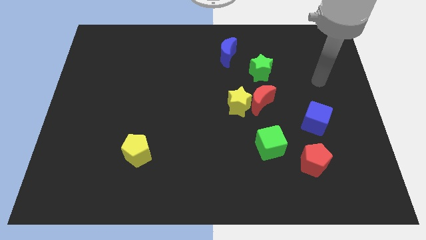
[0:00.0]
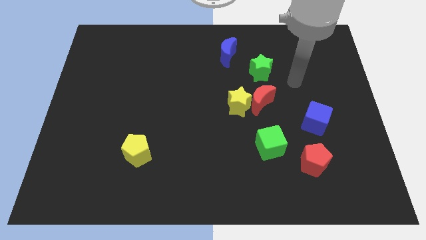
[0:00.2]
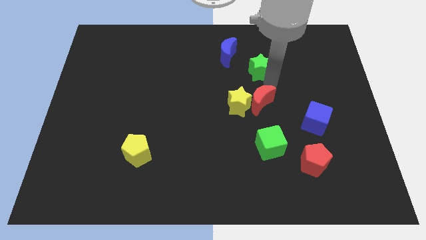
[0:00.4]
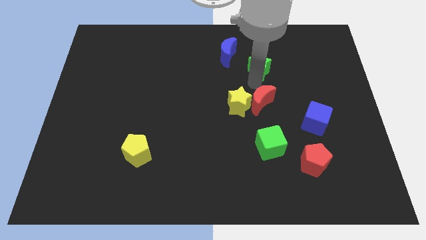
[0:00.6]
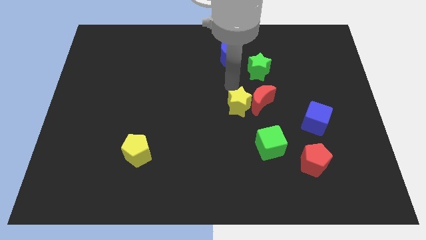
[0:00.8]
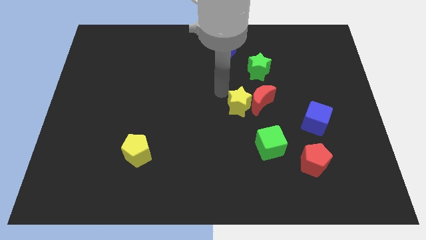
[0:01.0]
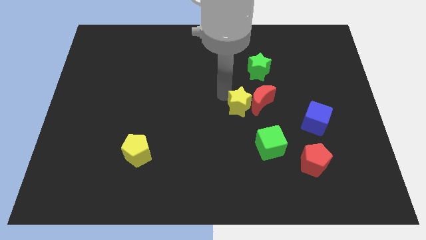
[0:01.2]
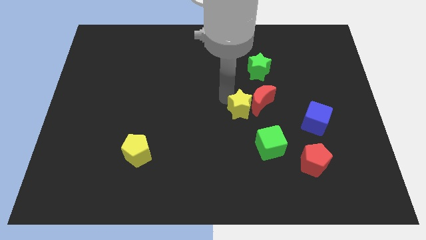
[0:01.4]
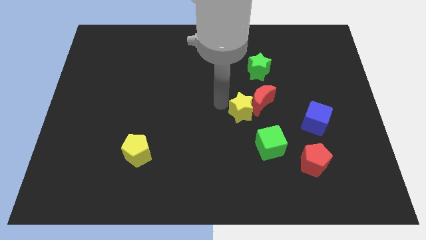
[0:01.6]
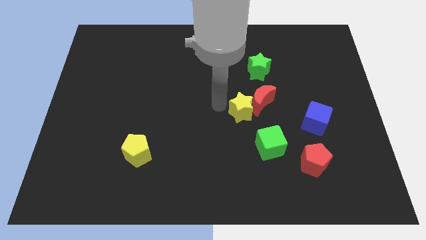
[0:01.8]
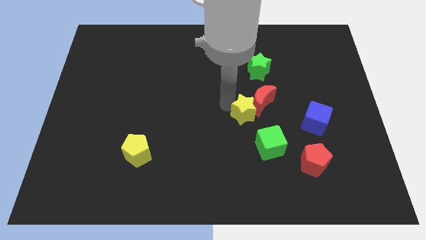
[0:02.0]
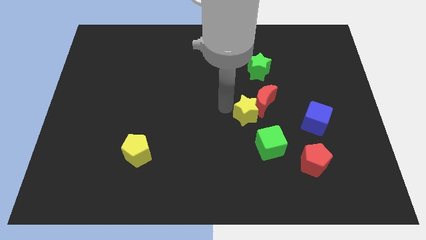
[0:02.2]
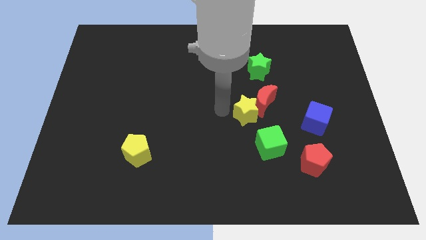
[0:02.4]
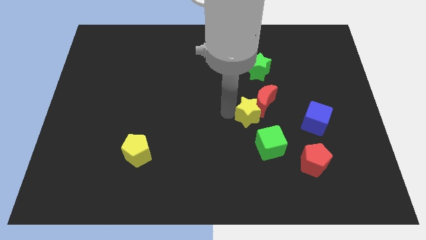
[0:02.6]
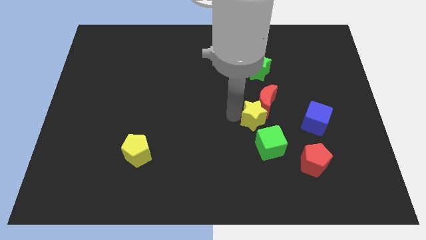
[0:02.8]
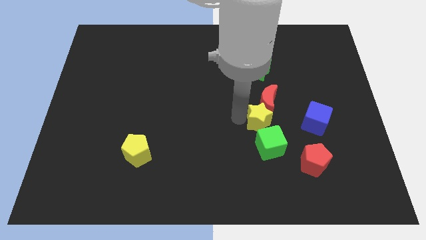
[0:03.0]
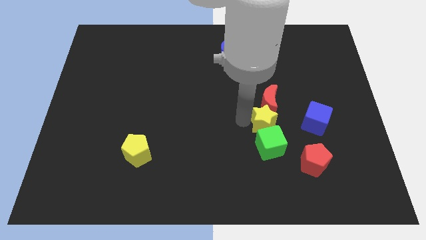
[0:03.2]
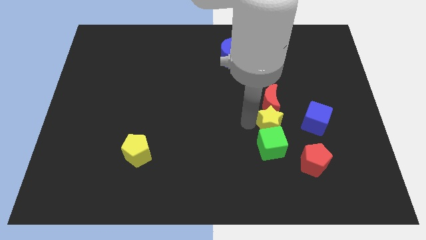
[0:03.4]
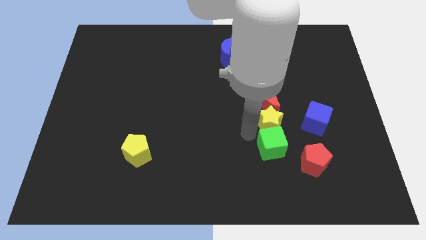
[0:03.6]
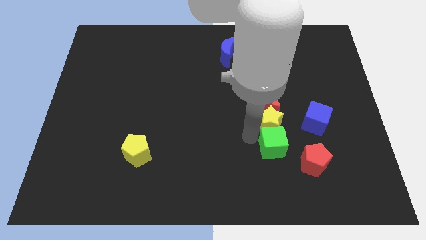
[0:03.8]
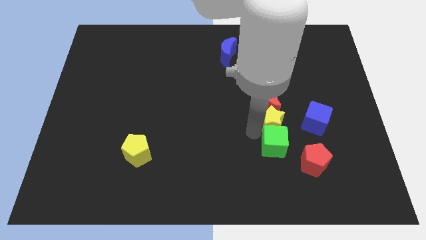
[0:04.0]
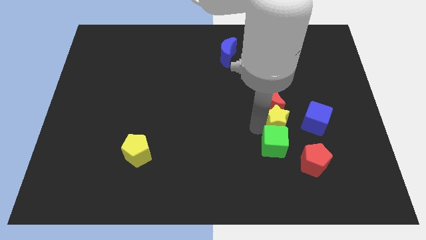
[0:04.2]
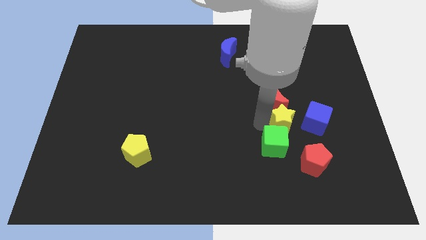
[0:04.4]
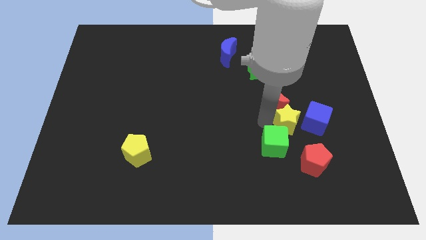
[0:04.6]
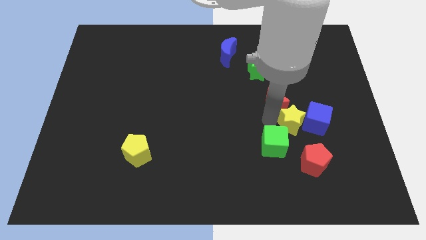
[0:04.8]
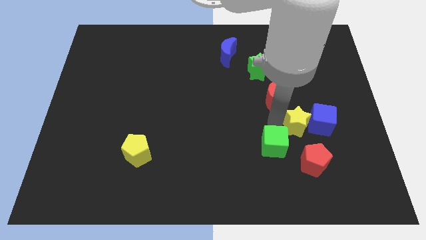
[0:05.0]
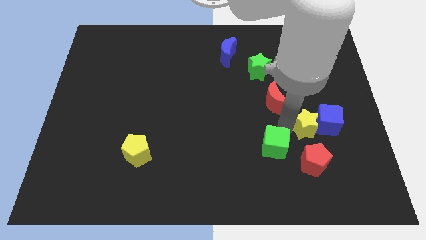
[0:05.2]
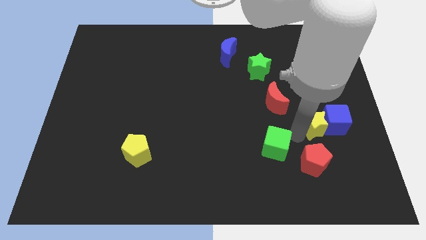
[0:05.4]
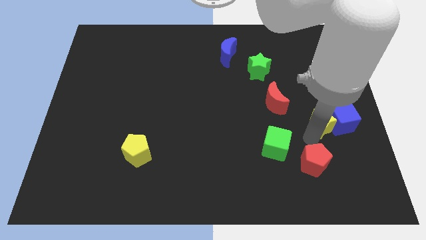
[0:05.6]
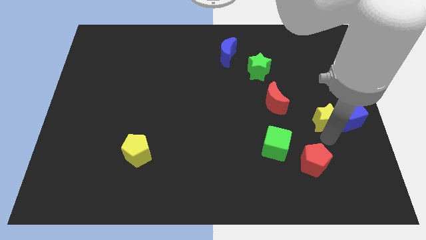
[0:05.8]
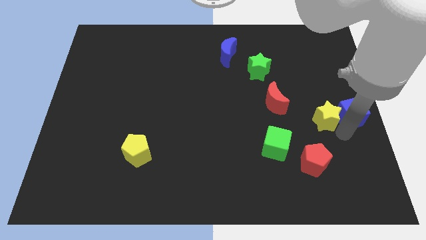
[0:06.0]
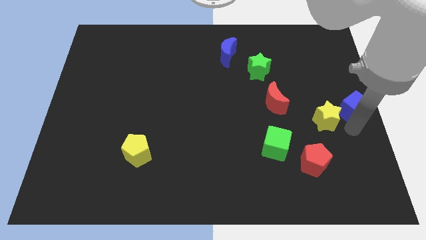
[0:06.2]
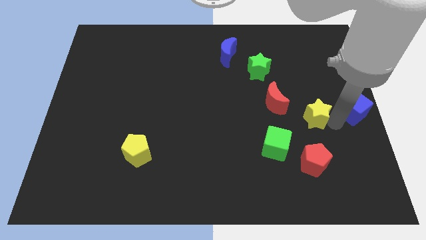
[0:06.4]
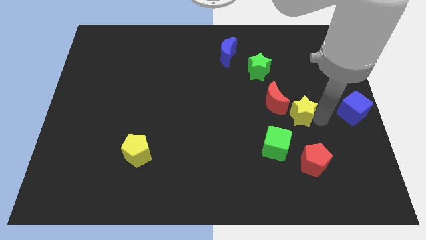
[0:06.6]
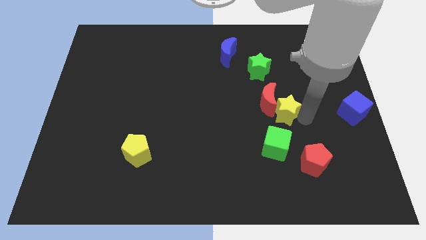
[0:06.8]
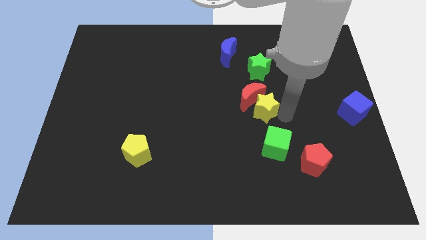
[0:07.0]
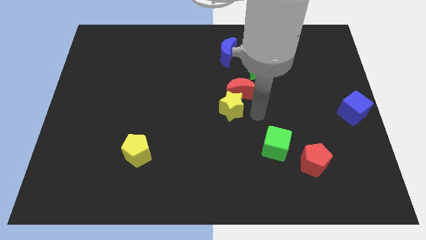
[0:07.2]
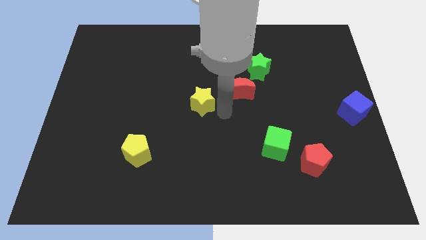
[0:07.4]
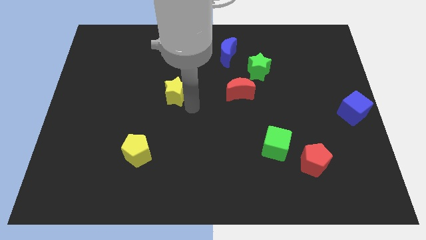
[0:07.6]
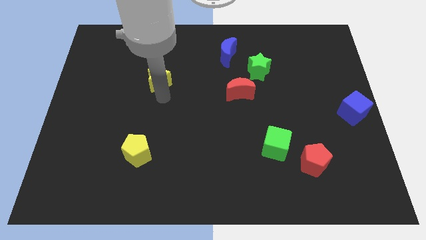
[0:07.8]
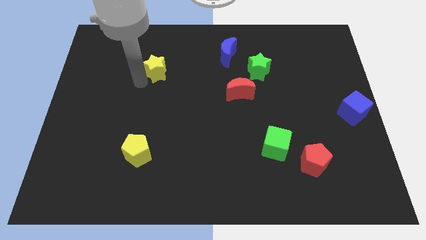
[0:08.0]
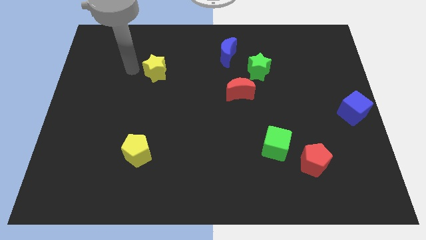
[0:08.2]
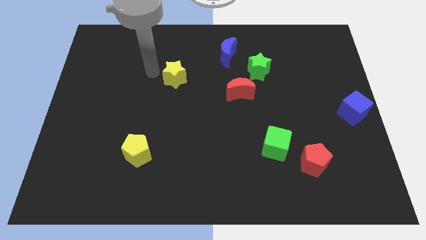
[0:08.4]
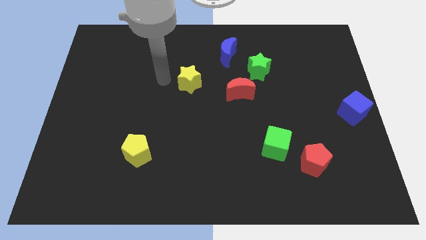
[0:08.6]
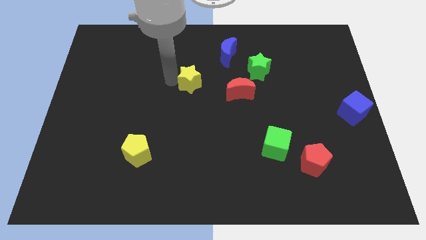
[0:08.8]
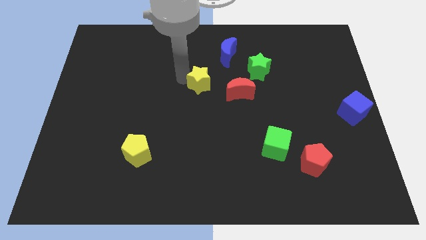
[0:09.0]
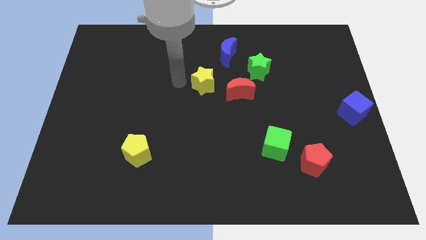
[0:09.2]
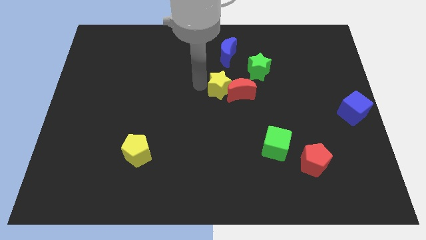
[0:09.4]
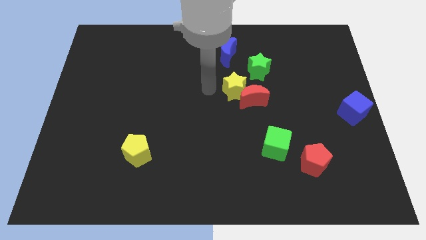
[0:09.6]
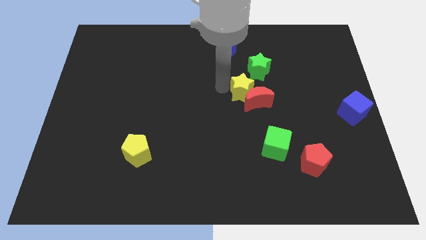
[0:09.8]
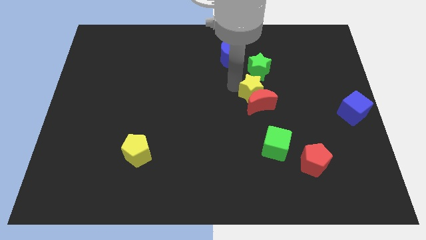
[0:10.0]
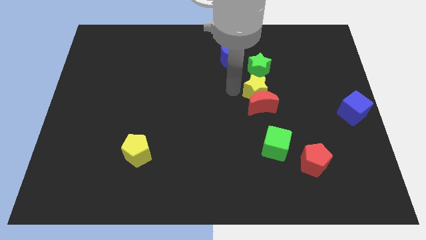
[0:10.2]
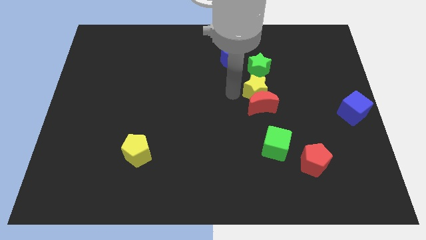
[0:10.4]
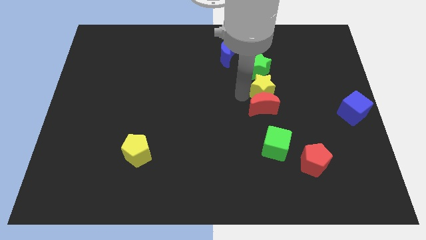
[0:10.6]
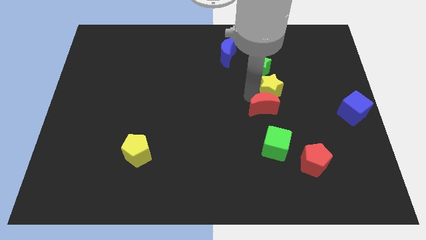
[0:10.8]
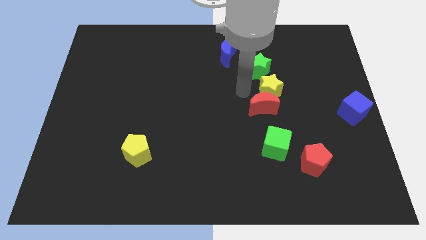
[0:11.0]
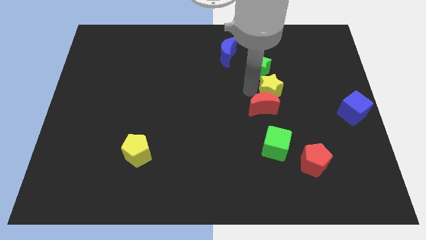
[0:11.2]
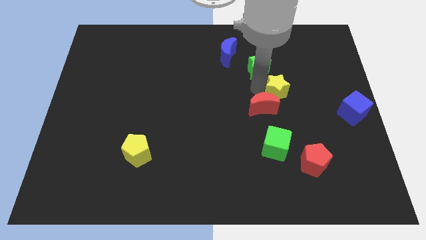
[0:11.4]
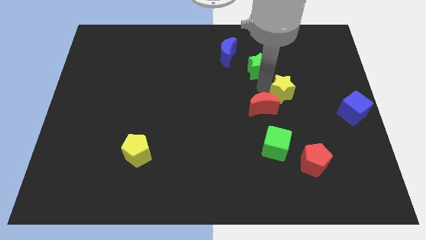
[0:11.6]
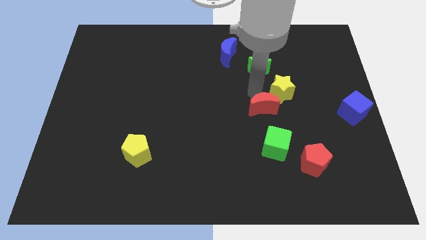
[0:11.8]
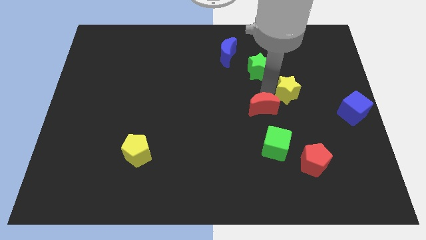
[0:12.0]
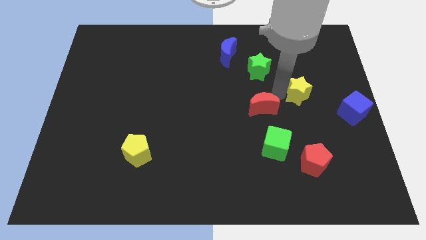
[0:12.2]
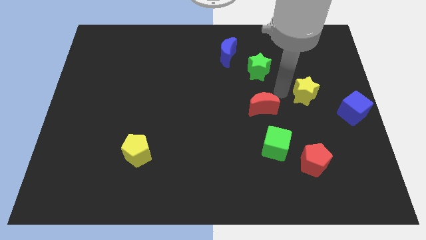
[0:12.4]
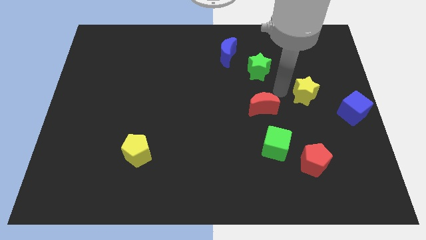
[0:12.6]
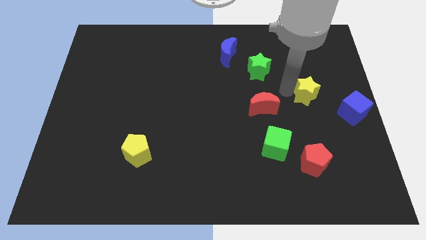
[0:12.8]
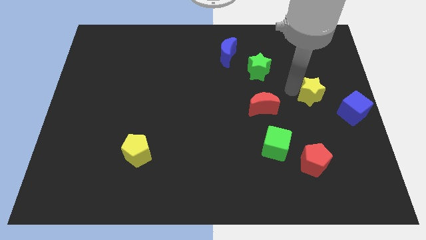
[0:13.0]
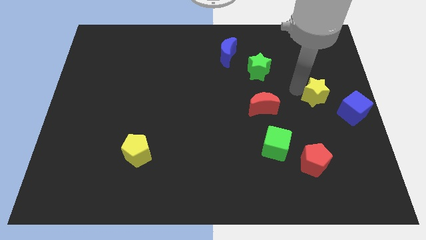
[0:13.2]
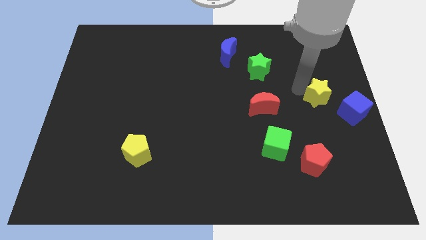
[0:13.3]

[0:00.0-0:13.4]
slide the yellow star to the right side

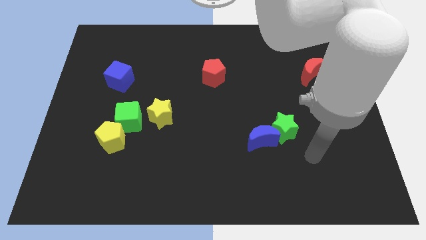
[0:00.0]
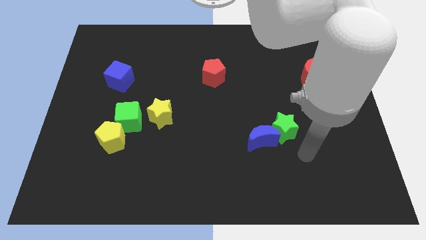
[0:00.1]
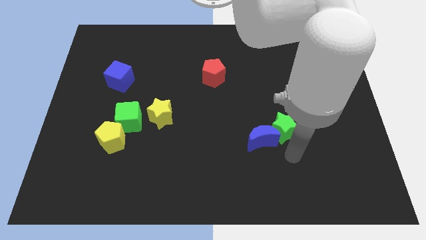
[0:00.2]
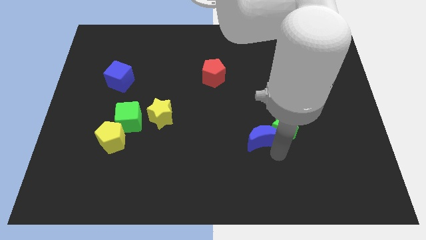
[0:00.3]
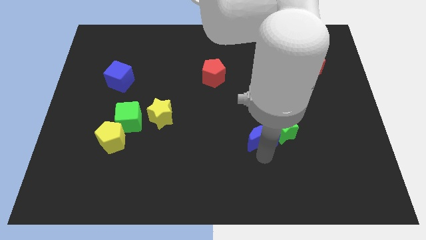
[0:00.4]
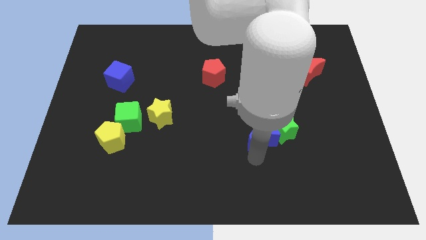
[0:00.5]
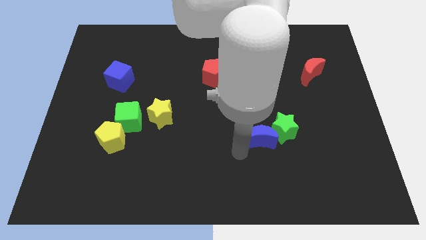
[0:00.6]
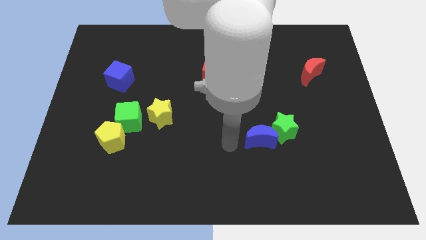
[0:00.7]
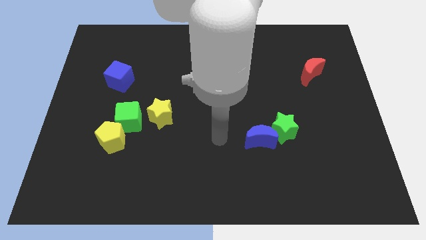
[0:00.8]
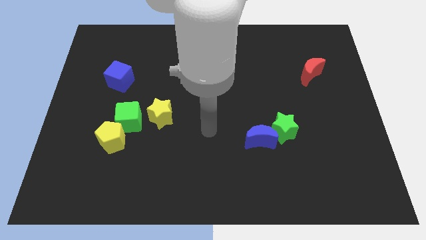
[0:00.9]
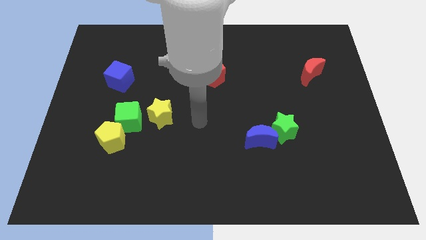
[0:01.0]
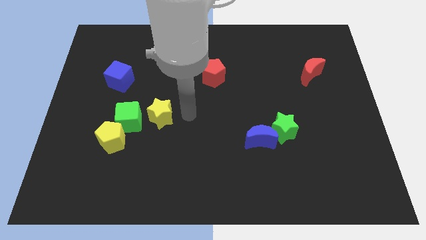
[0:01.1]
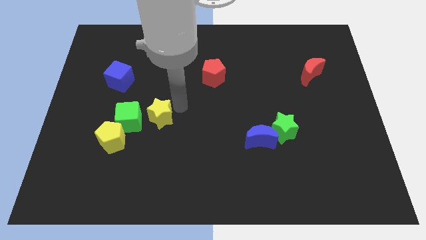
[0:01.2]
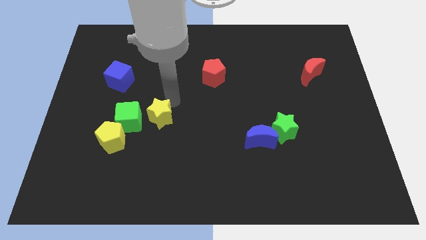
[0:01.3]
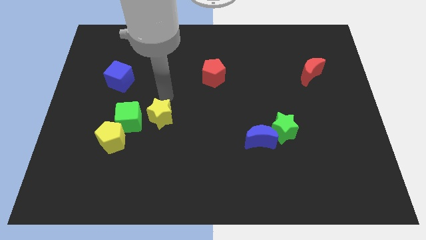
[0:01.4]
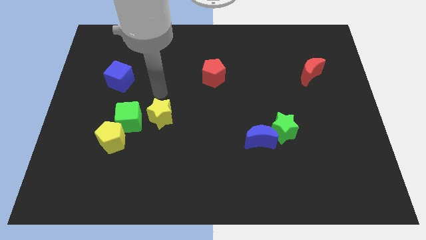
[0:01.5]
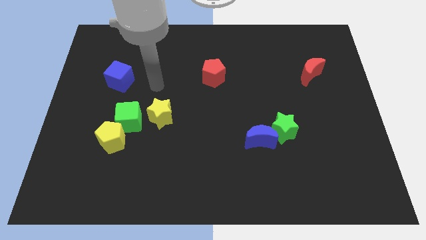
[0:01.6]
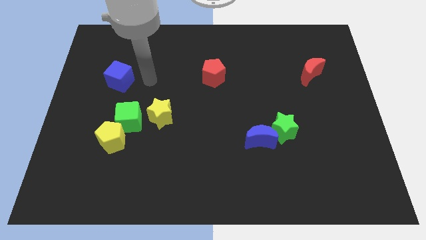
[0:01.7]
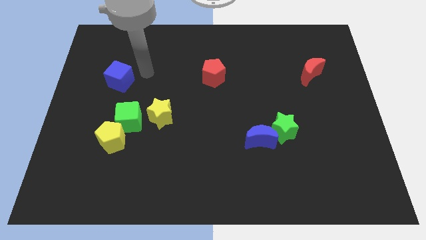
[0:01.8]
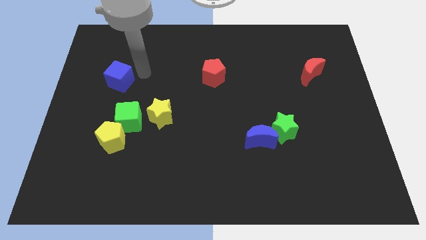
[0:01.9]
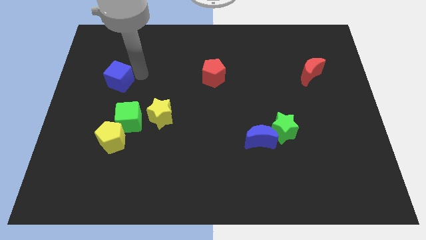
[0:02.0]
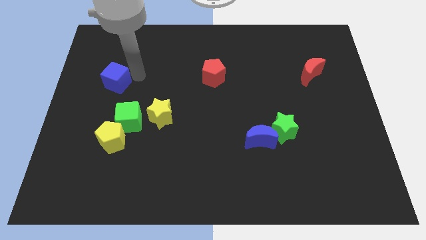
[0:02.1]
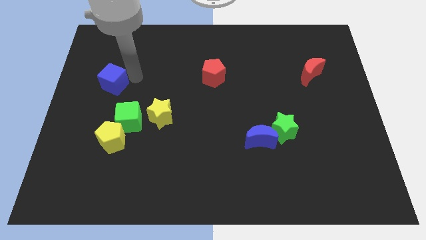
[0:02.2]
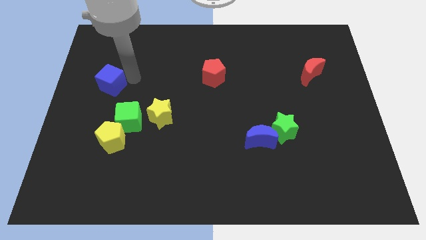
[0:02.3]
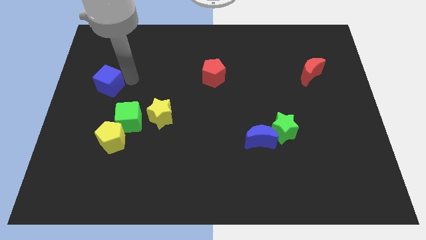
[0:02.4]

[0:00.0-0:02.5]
put the blue cube to the center left
